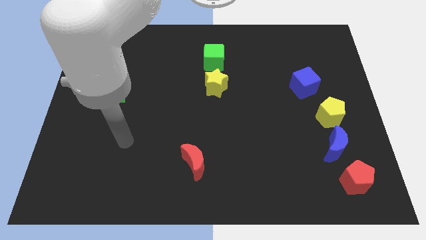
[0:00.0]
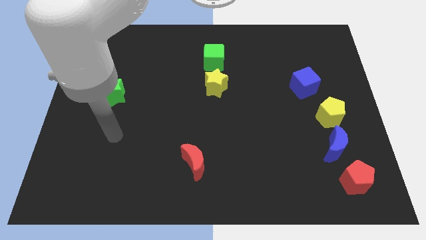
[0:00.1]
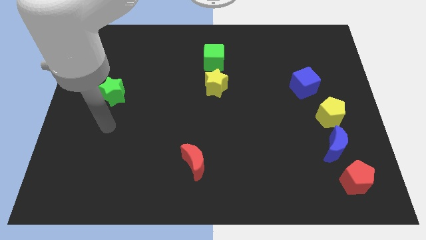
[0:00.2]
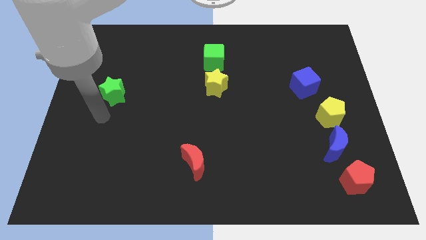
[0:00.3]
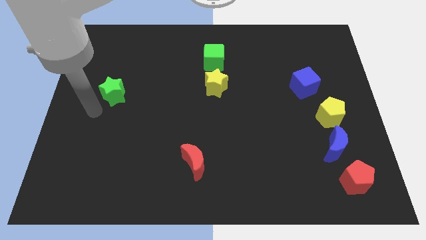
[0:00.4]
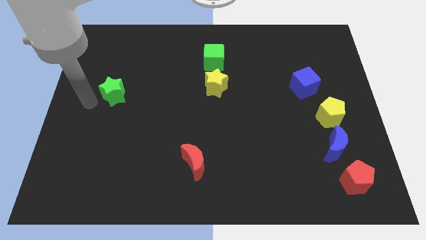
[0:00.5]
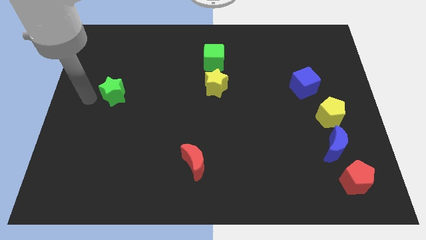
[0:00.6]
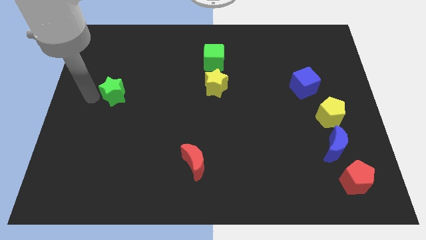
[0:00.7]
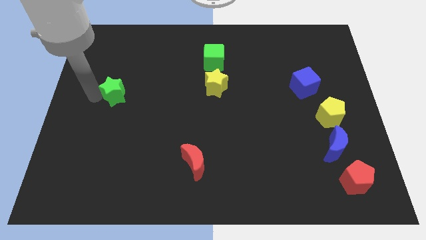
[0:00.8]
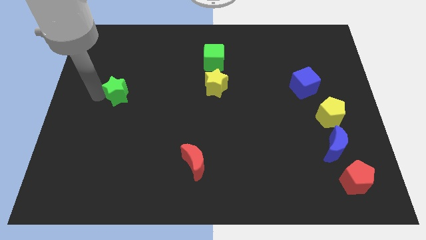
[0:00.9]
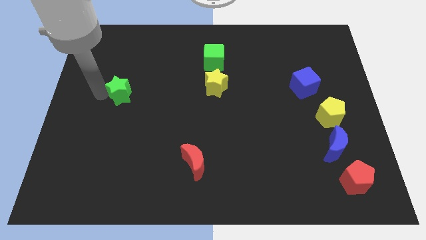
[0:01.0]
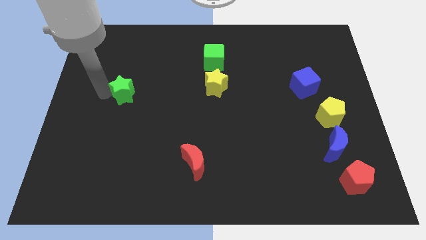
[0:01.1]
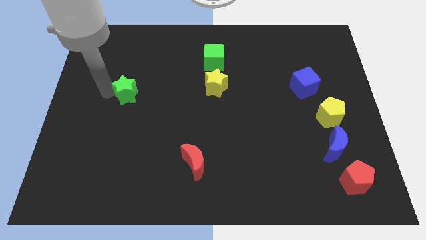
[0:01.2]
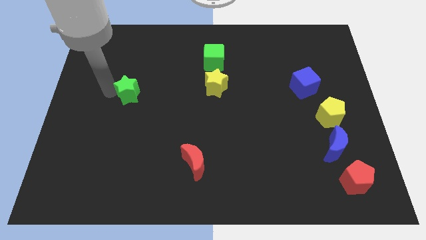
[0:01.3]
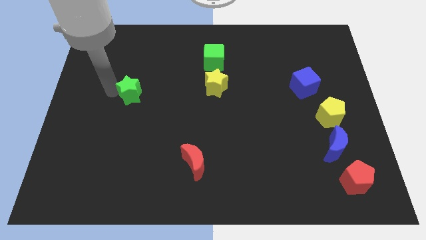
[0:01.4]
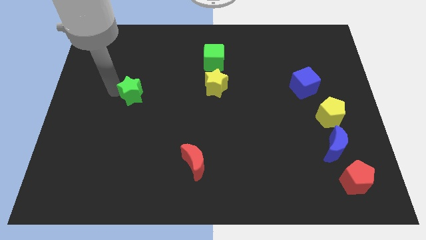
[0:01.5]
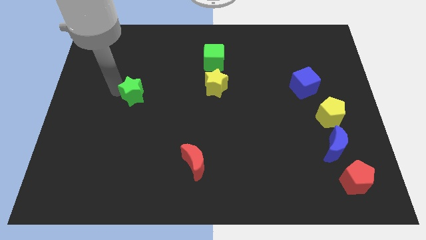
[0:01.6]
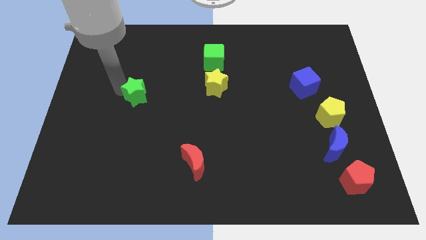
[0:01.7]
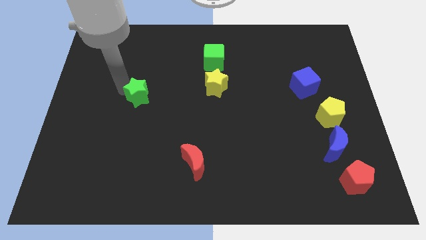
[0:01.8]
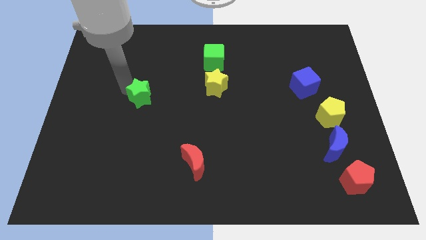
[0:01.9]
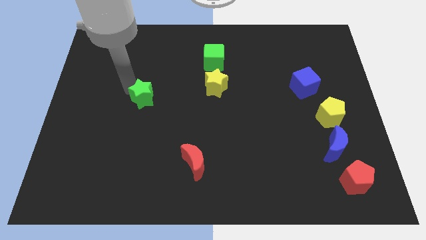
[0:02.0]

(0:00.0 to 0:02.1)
slide the green star slightly to the right

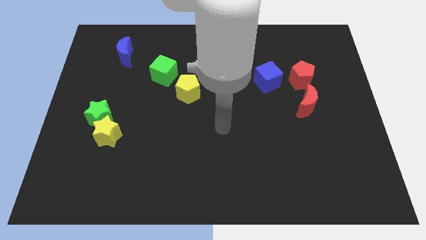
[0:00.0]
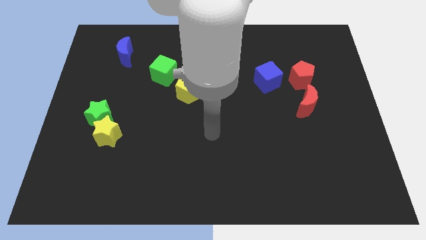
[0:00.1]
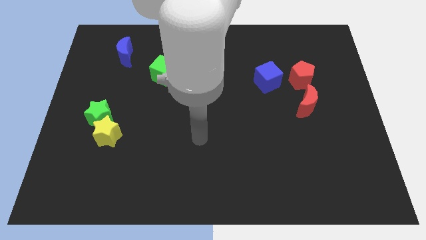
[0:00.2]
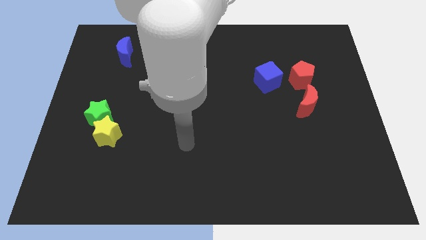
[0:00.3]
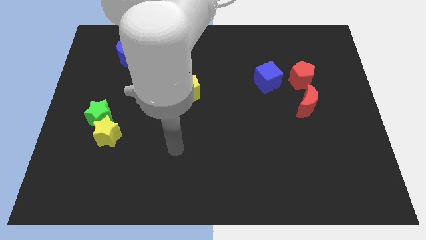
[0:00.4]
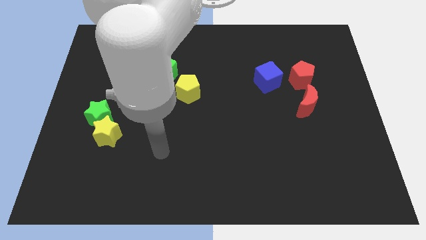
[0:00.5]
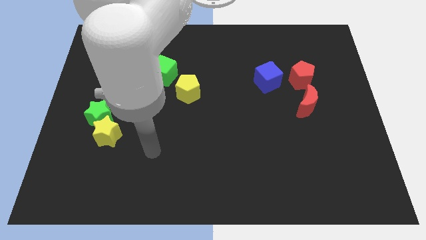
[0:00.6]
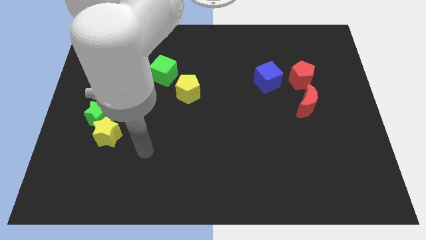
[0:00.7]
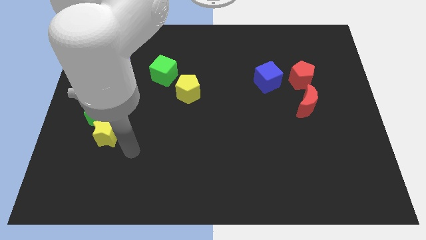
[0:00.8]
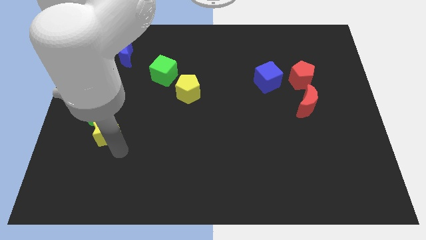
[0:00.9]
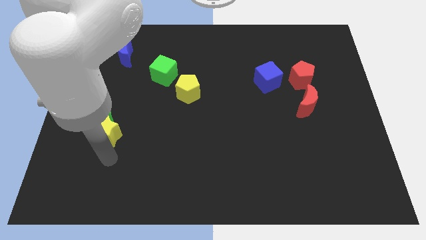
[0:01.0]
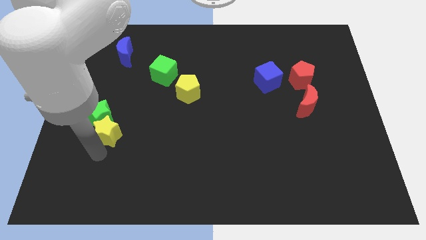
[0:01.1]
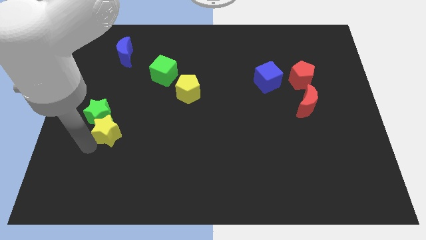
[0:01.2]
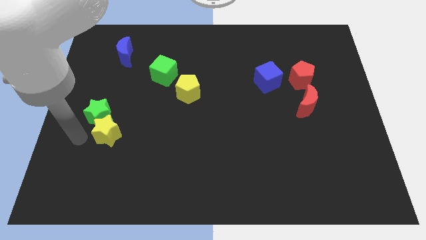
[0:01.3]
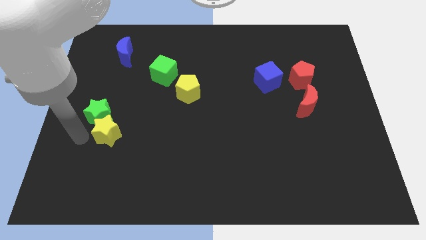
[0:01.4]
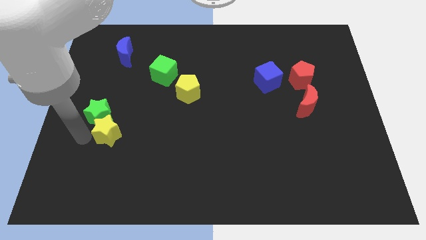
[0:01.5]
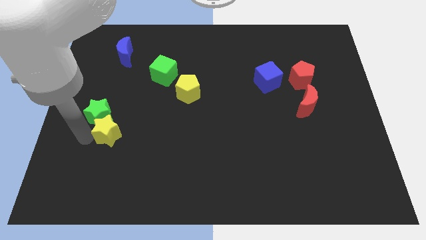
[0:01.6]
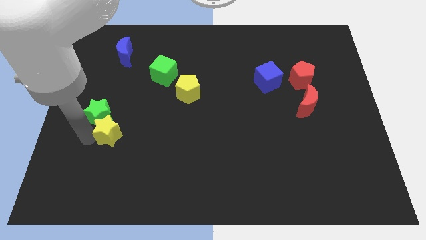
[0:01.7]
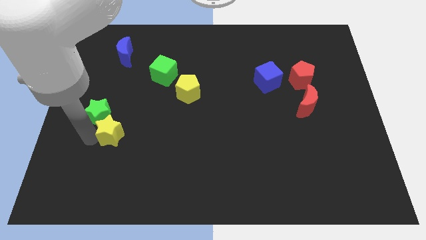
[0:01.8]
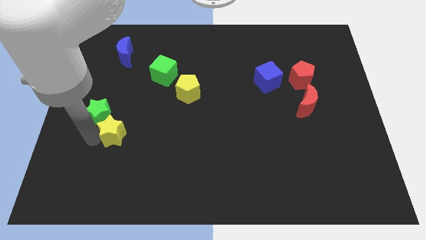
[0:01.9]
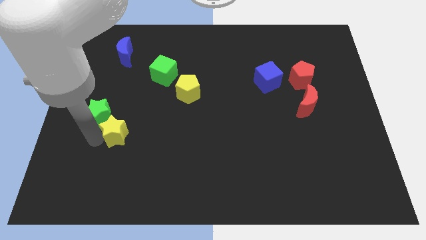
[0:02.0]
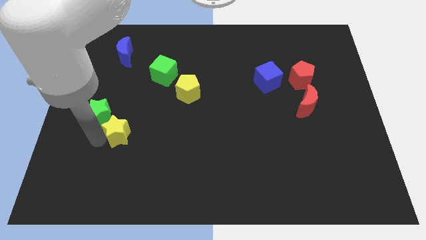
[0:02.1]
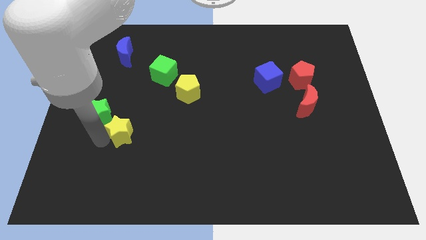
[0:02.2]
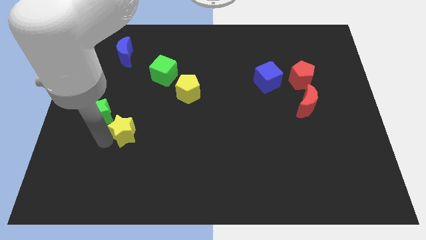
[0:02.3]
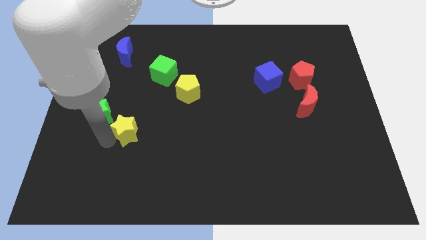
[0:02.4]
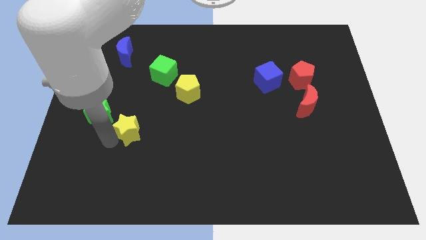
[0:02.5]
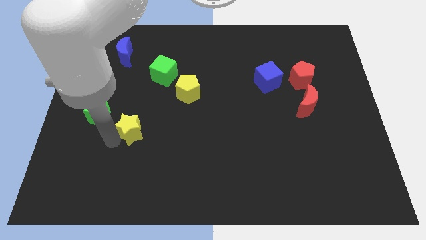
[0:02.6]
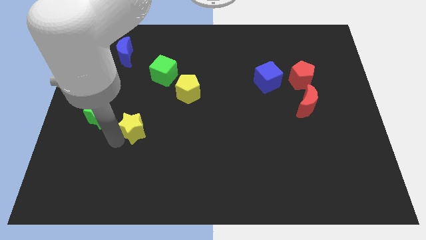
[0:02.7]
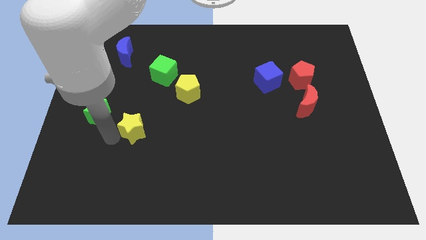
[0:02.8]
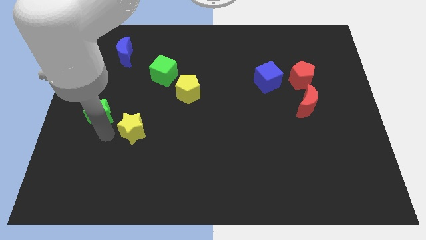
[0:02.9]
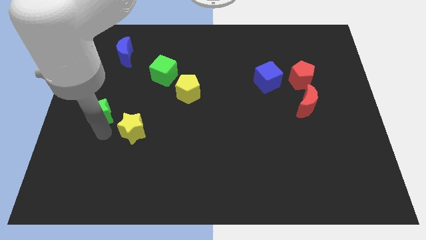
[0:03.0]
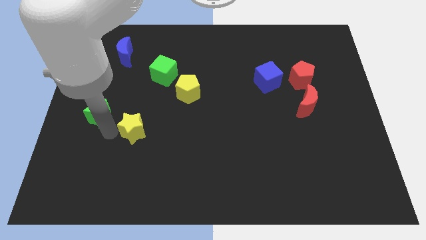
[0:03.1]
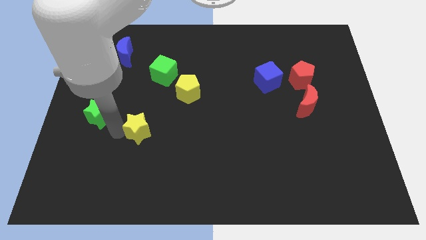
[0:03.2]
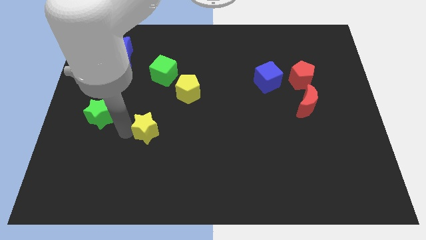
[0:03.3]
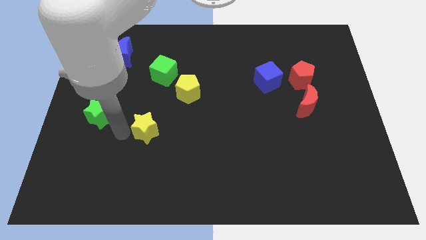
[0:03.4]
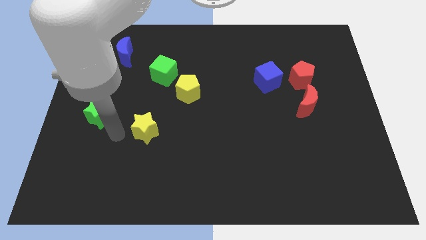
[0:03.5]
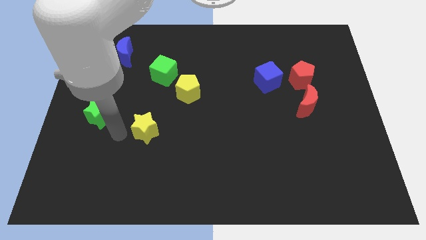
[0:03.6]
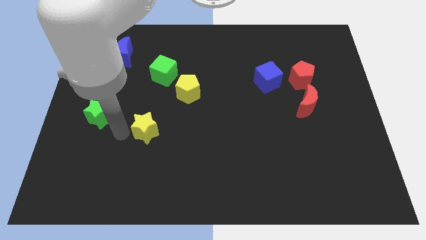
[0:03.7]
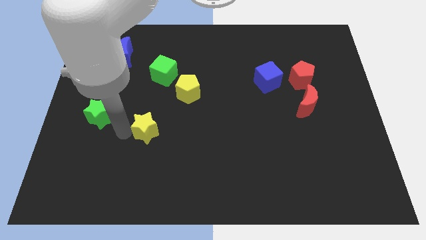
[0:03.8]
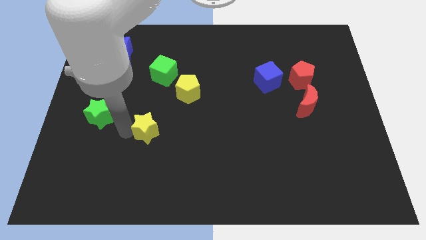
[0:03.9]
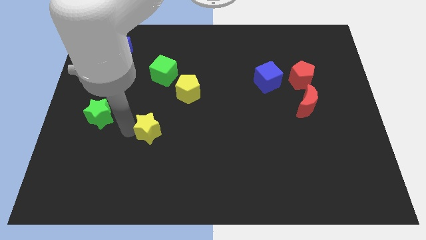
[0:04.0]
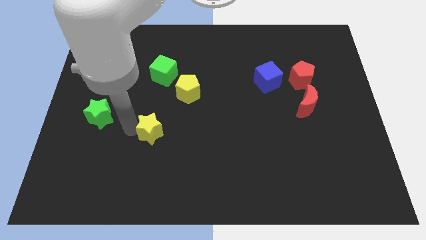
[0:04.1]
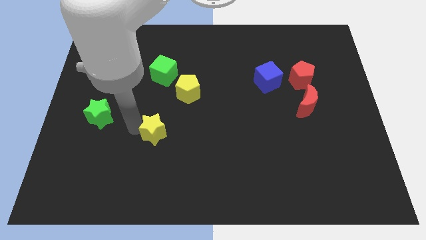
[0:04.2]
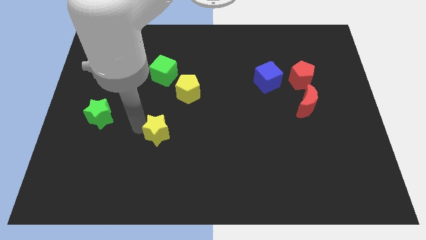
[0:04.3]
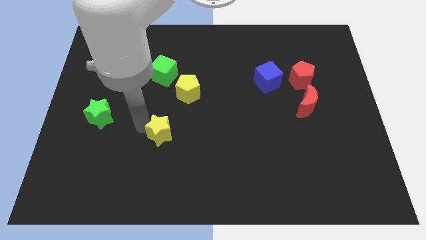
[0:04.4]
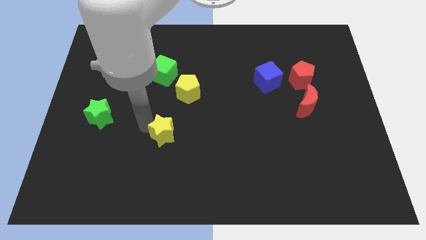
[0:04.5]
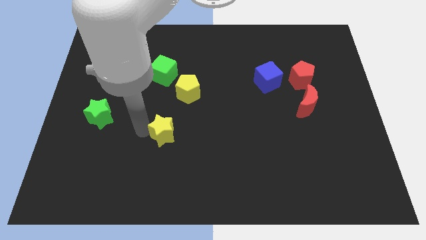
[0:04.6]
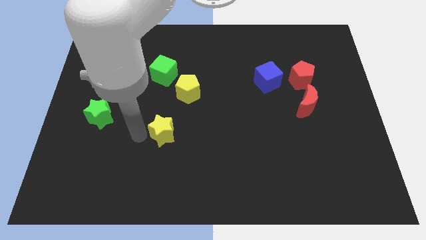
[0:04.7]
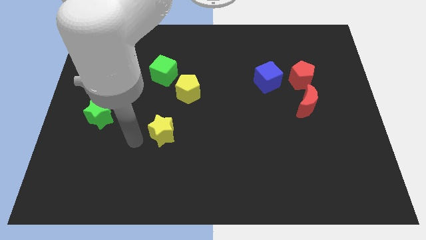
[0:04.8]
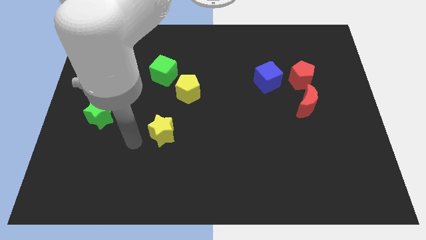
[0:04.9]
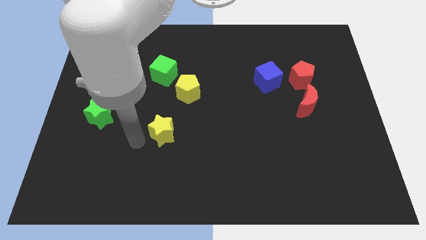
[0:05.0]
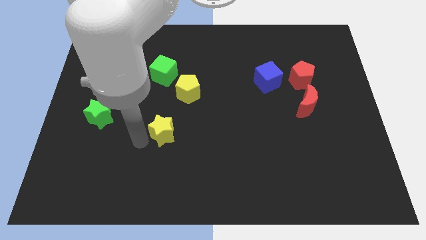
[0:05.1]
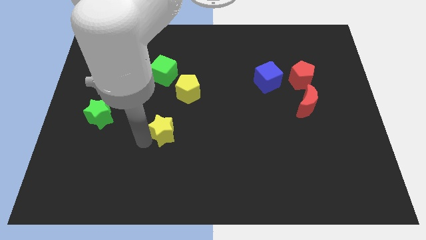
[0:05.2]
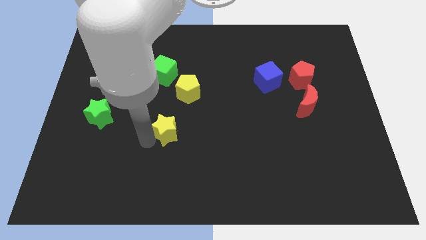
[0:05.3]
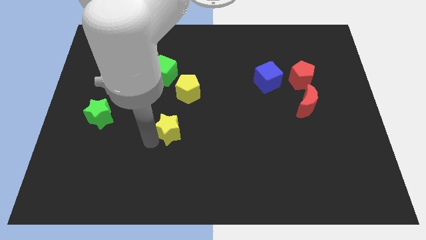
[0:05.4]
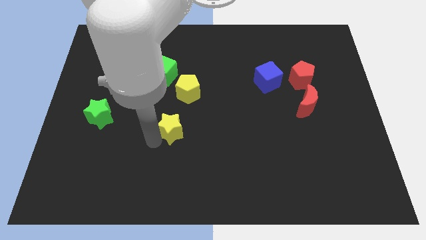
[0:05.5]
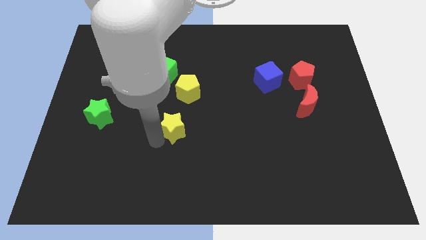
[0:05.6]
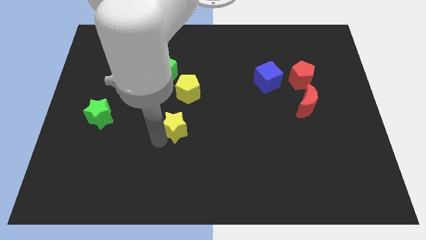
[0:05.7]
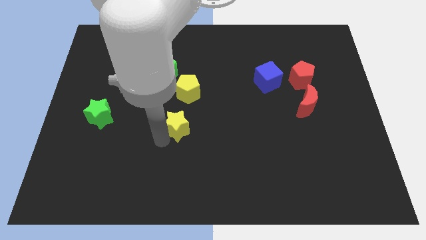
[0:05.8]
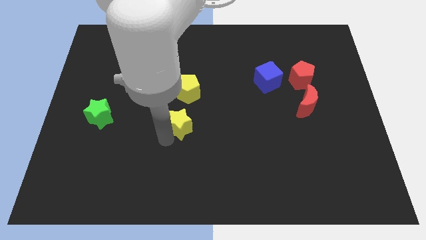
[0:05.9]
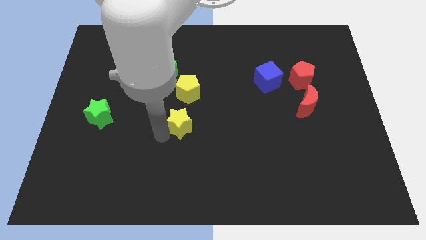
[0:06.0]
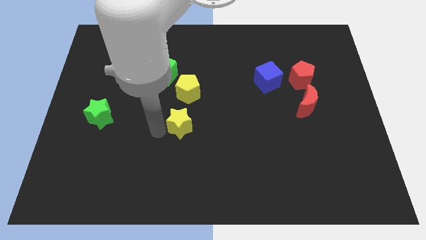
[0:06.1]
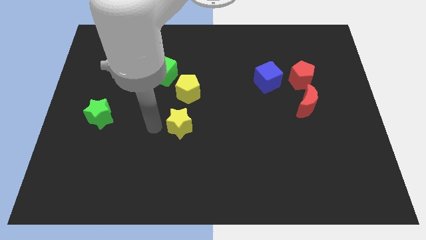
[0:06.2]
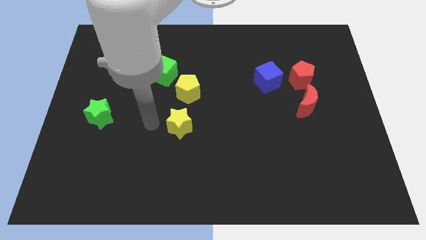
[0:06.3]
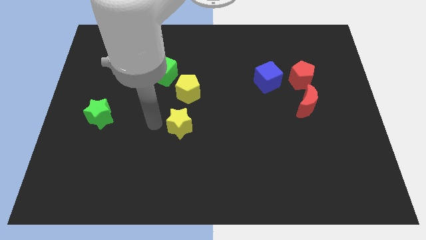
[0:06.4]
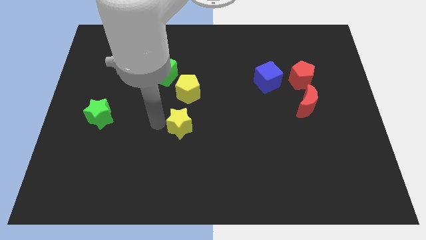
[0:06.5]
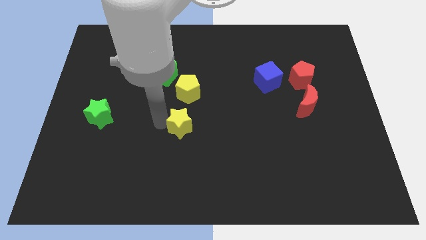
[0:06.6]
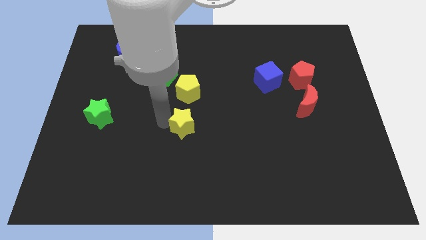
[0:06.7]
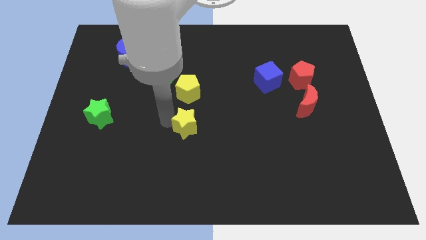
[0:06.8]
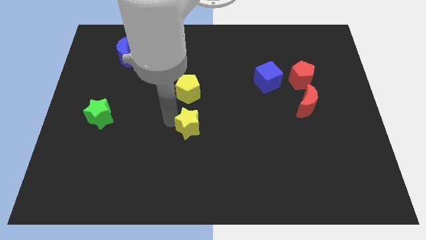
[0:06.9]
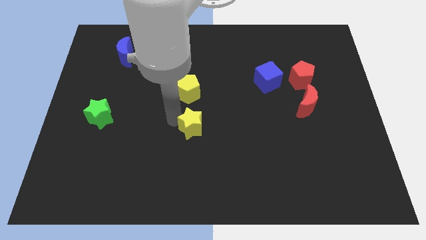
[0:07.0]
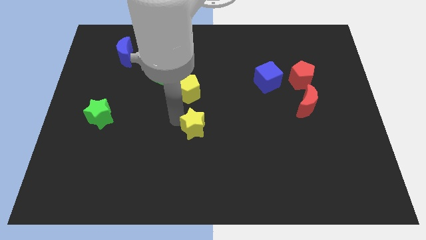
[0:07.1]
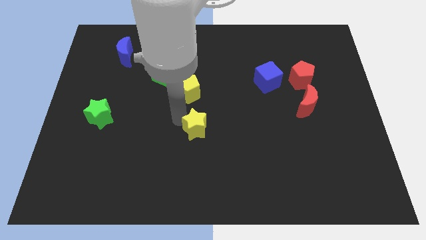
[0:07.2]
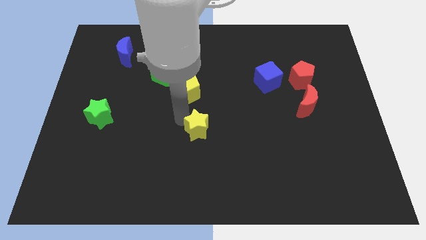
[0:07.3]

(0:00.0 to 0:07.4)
slide the yellow star right
